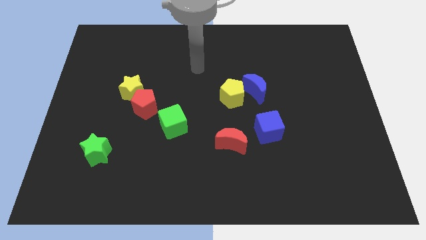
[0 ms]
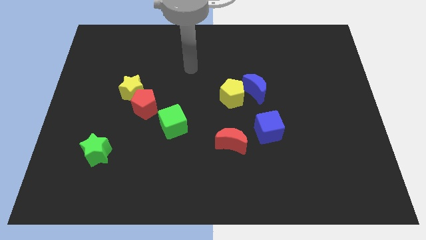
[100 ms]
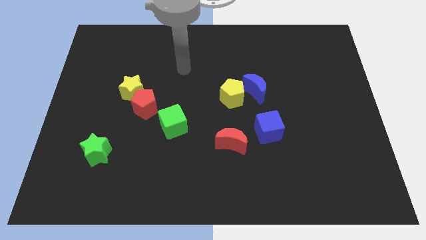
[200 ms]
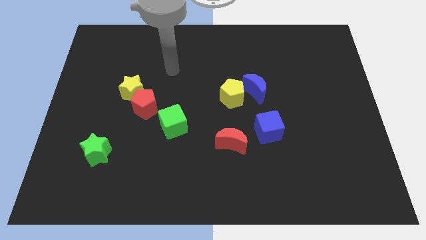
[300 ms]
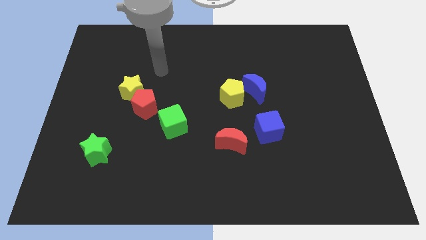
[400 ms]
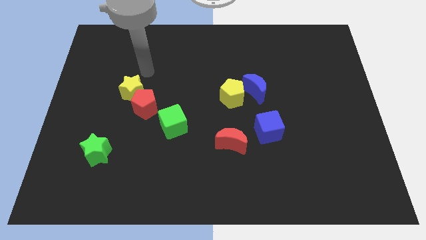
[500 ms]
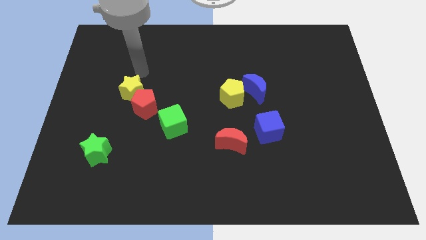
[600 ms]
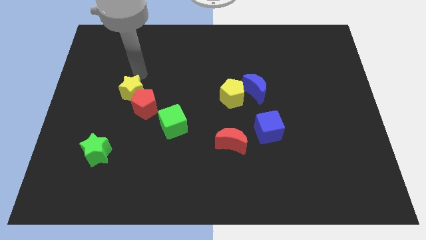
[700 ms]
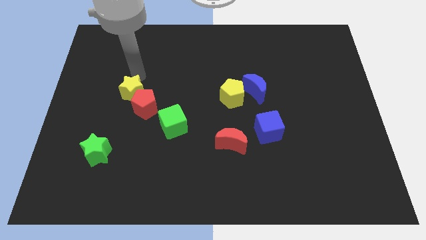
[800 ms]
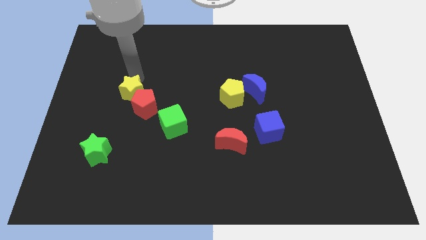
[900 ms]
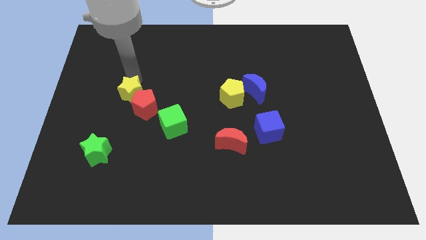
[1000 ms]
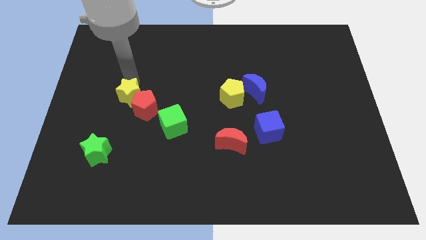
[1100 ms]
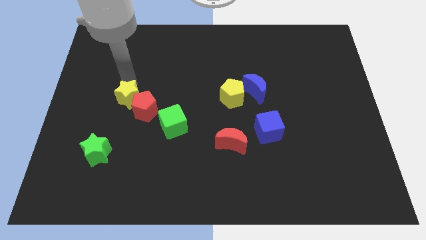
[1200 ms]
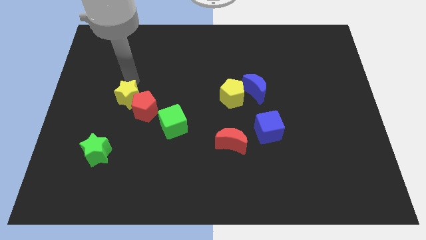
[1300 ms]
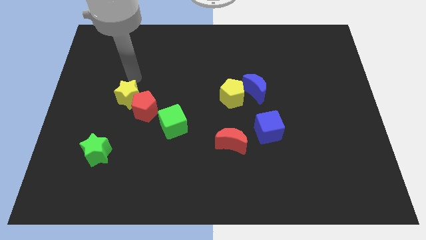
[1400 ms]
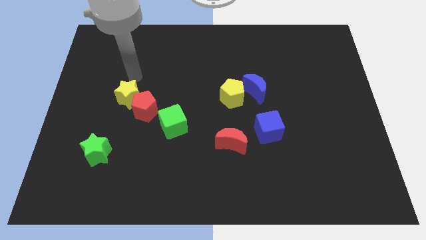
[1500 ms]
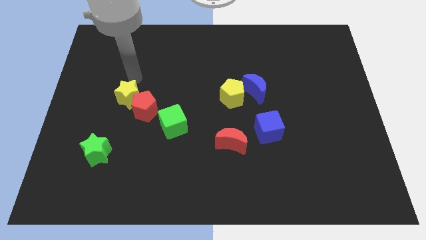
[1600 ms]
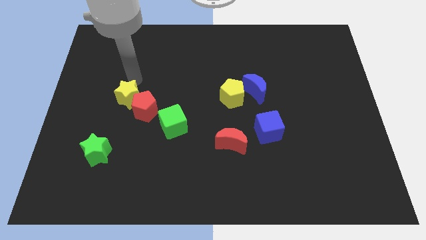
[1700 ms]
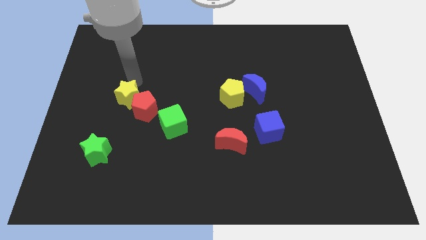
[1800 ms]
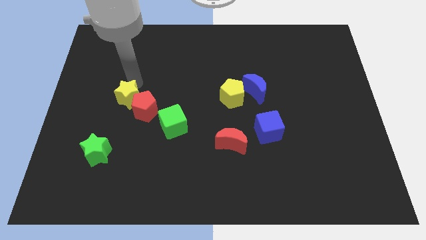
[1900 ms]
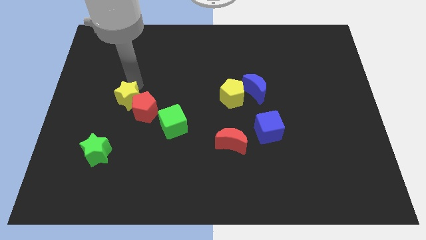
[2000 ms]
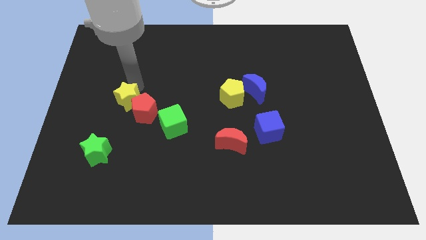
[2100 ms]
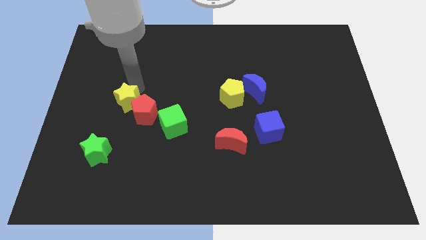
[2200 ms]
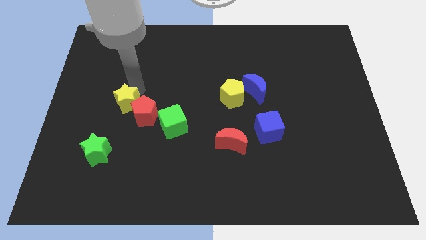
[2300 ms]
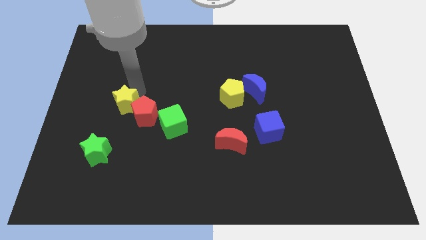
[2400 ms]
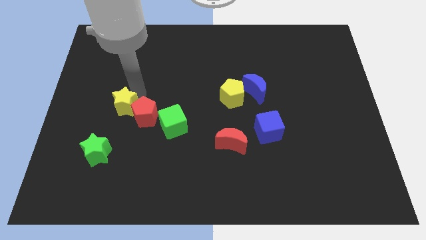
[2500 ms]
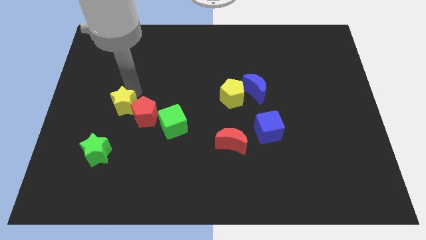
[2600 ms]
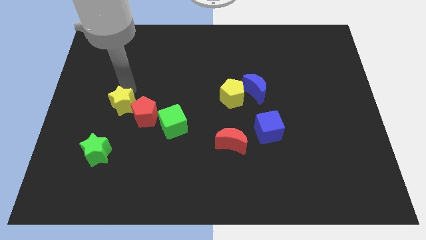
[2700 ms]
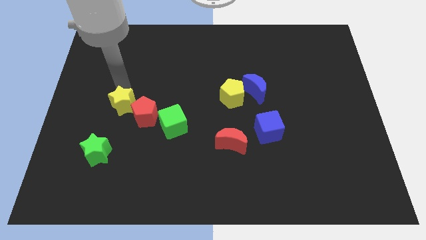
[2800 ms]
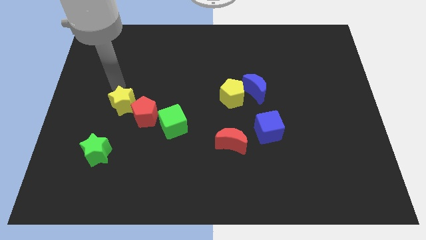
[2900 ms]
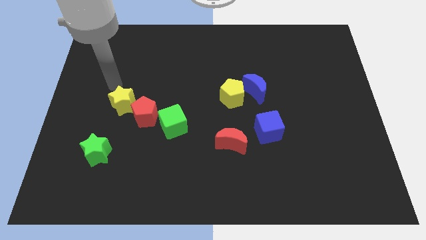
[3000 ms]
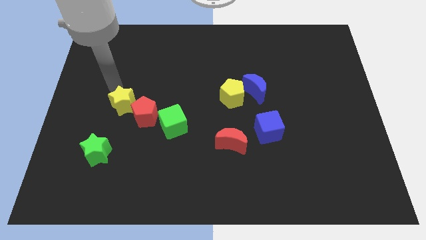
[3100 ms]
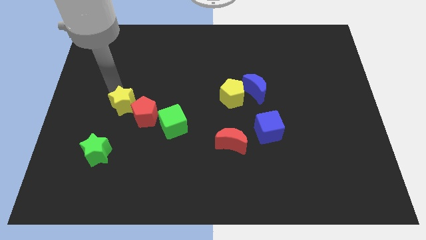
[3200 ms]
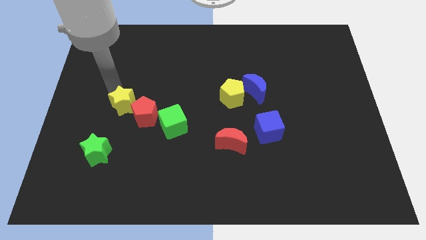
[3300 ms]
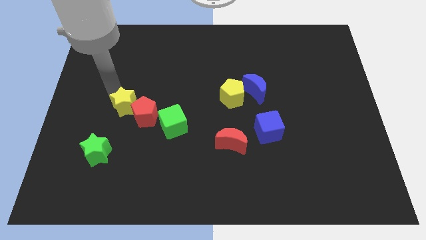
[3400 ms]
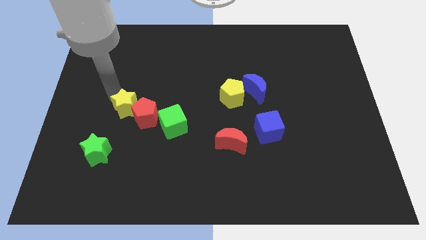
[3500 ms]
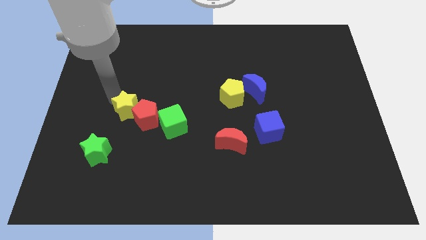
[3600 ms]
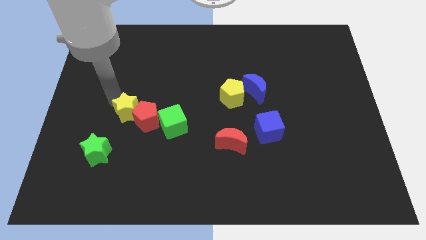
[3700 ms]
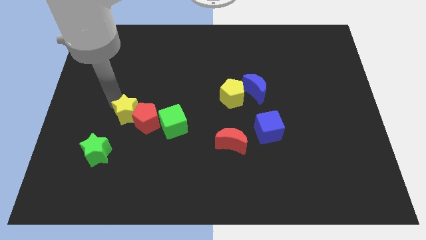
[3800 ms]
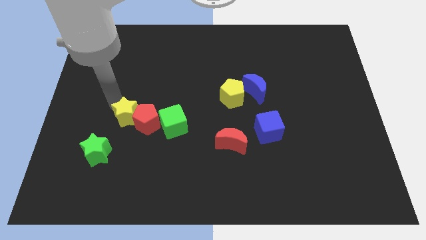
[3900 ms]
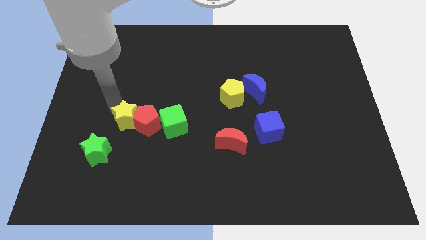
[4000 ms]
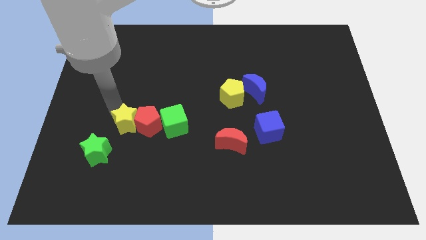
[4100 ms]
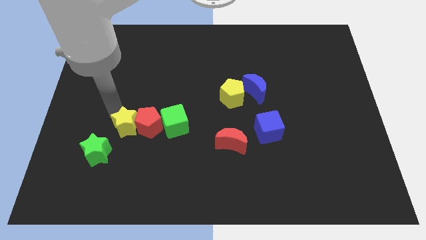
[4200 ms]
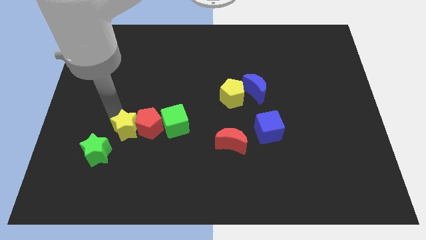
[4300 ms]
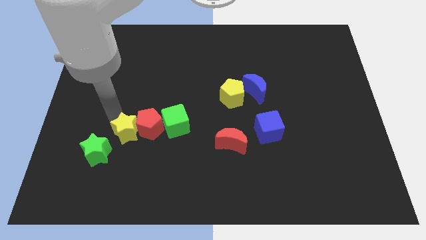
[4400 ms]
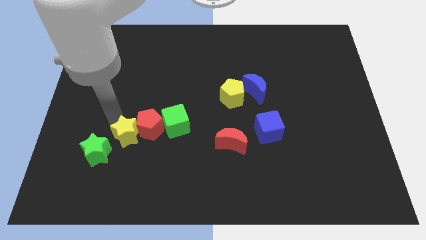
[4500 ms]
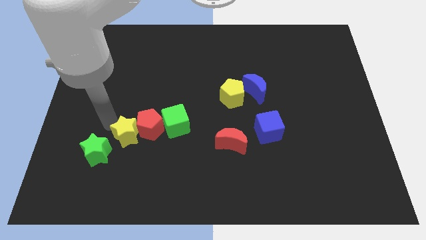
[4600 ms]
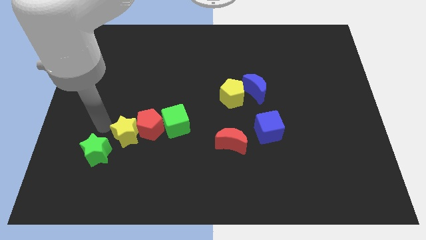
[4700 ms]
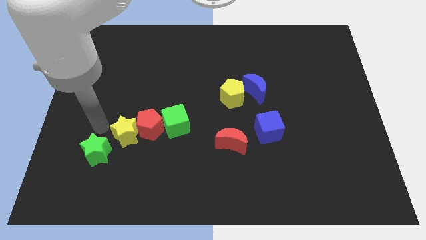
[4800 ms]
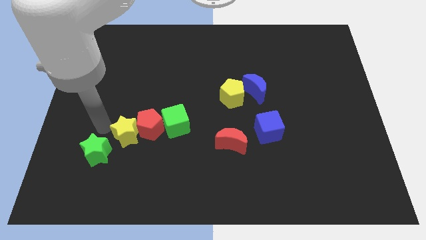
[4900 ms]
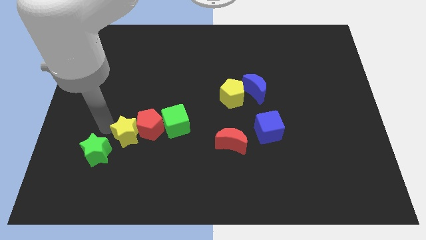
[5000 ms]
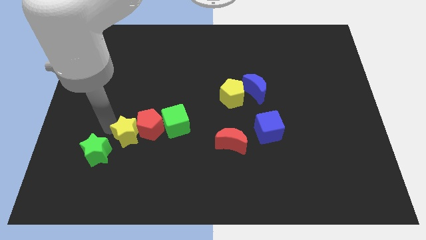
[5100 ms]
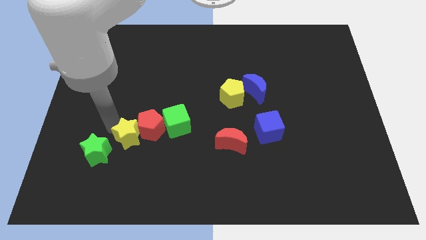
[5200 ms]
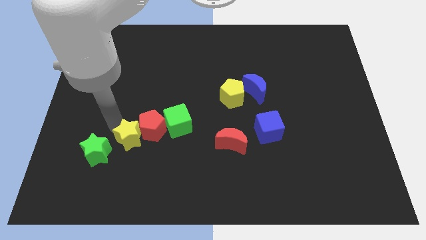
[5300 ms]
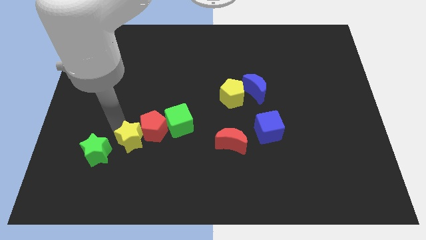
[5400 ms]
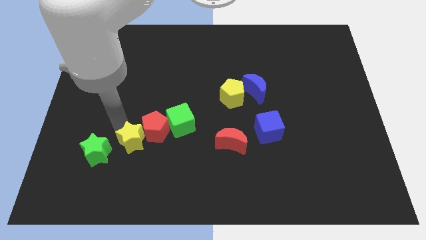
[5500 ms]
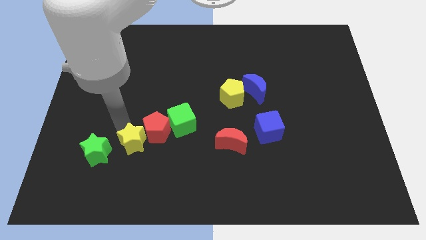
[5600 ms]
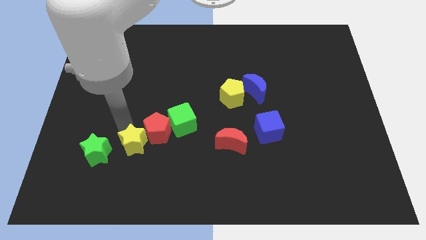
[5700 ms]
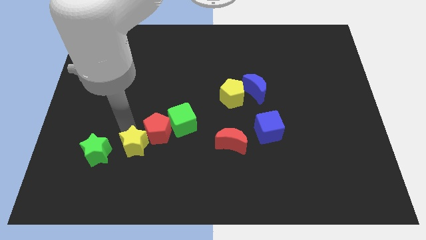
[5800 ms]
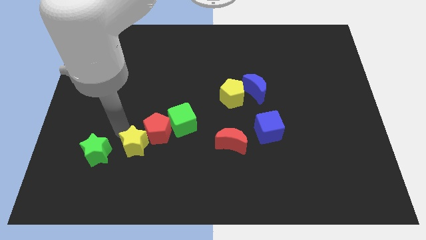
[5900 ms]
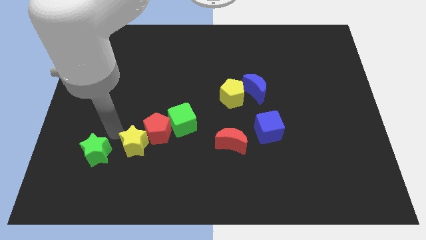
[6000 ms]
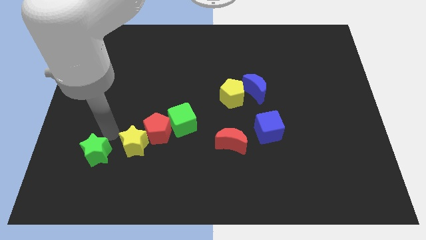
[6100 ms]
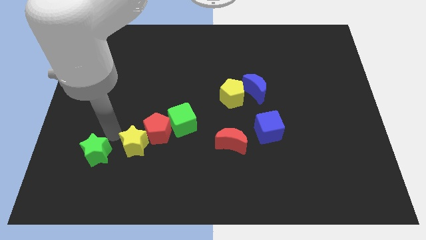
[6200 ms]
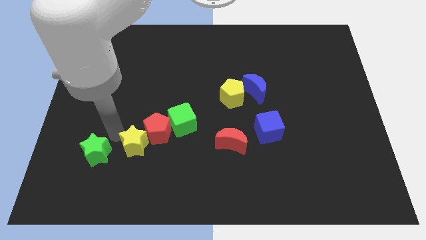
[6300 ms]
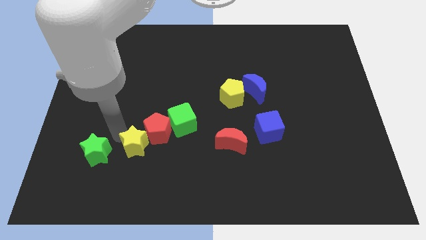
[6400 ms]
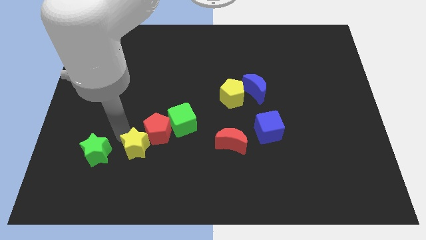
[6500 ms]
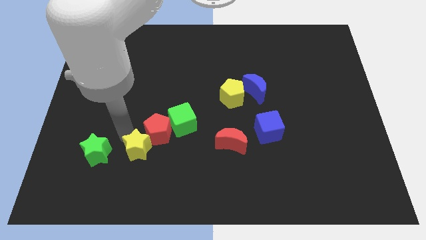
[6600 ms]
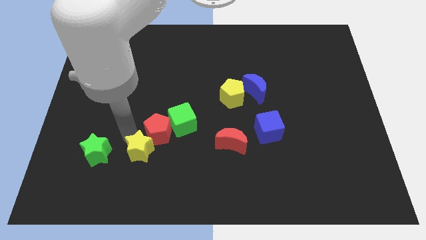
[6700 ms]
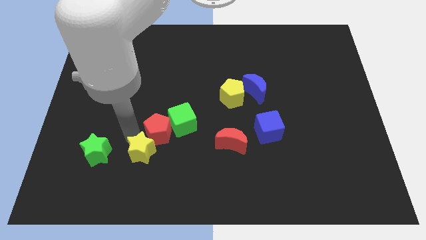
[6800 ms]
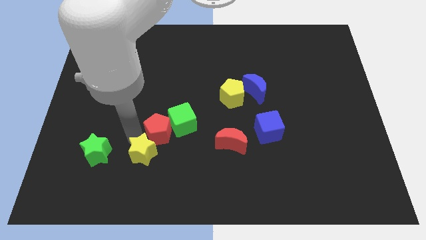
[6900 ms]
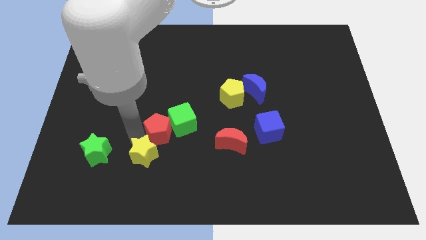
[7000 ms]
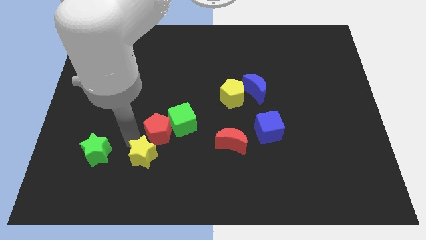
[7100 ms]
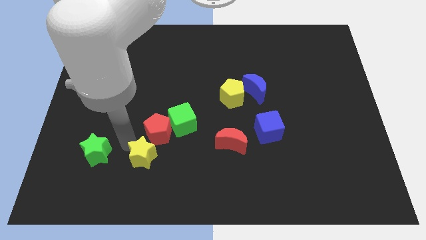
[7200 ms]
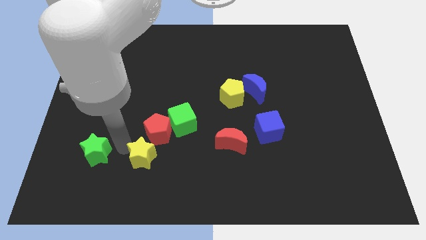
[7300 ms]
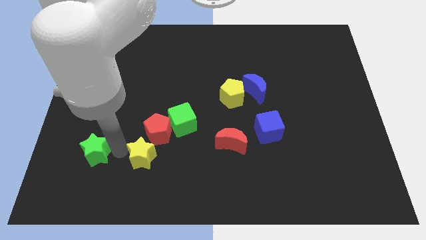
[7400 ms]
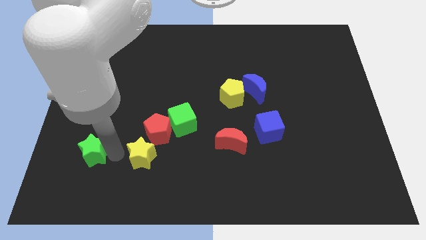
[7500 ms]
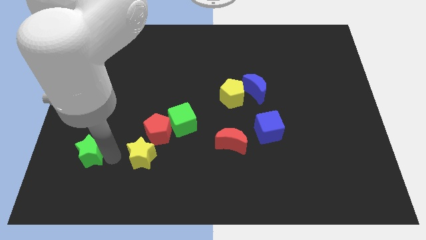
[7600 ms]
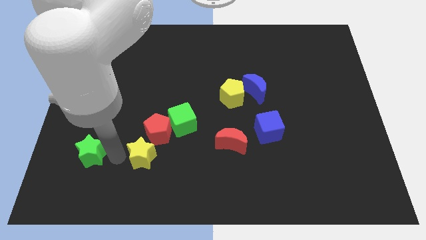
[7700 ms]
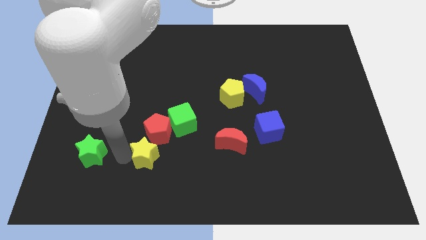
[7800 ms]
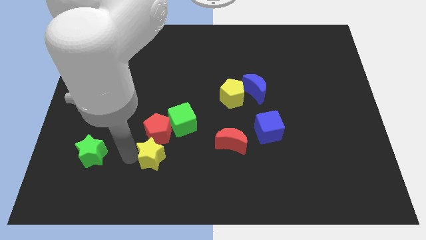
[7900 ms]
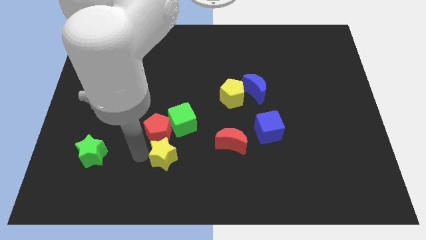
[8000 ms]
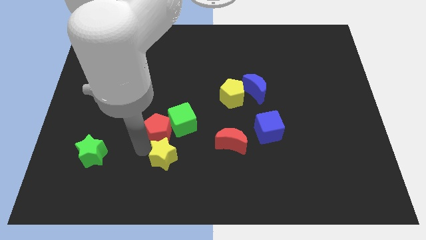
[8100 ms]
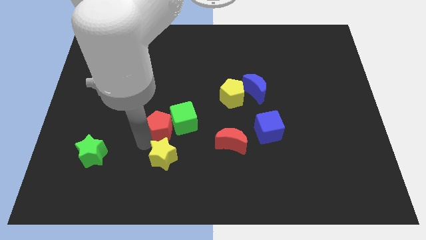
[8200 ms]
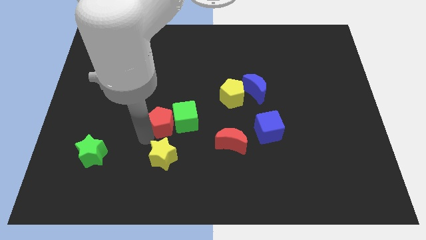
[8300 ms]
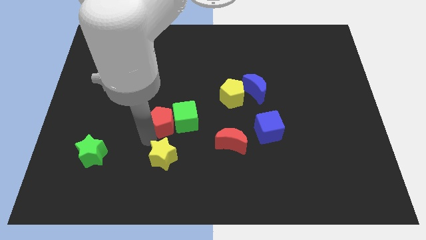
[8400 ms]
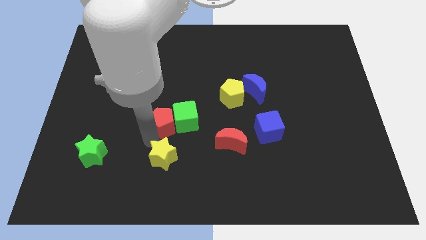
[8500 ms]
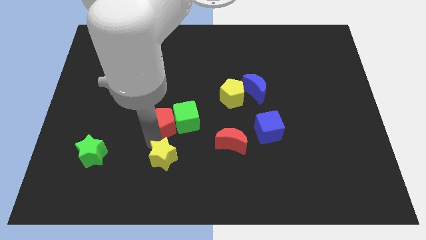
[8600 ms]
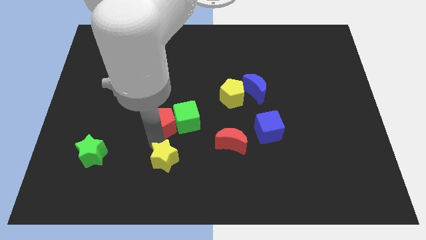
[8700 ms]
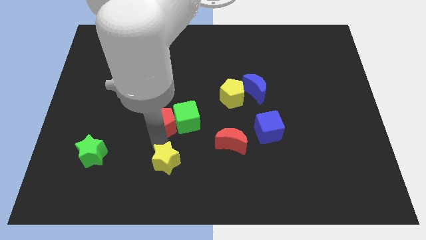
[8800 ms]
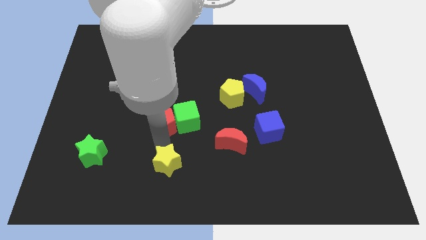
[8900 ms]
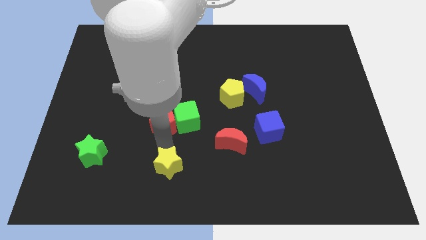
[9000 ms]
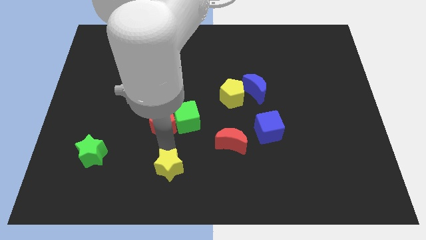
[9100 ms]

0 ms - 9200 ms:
slide the yellow star to the bottom
